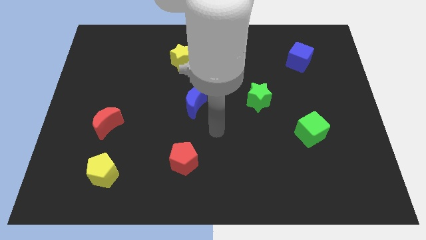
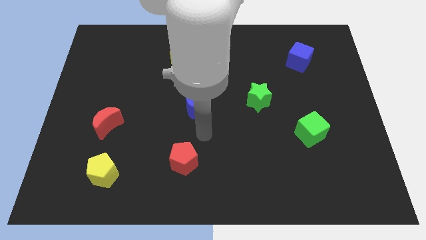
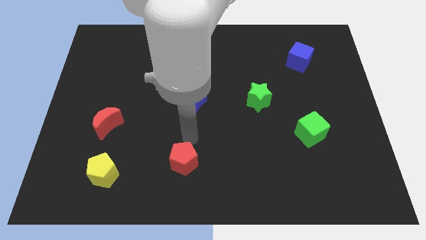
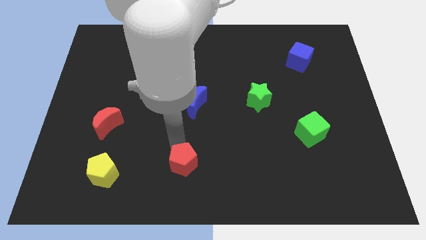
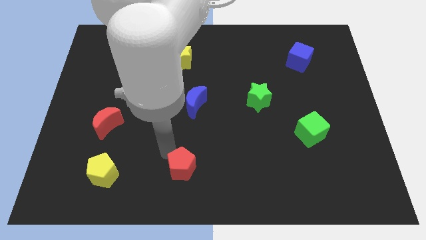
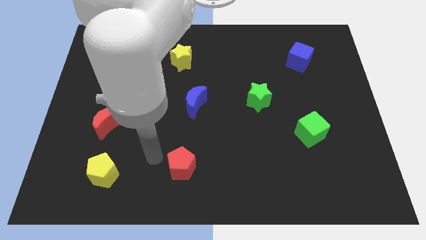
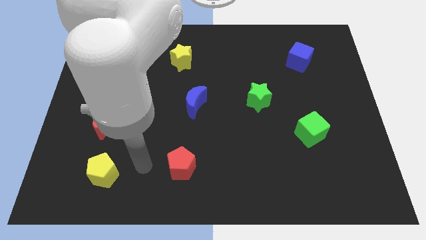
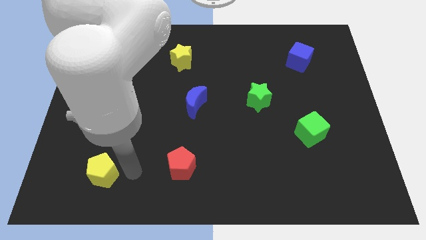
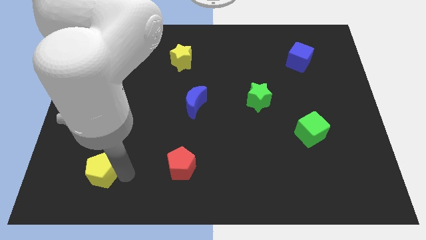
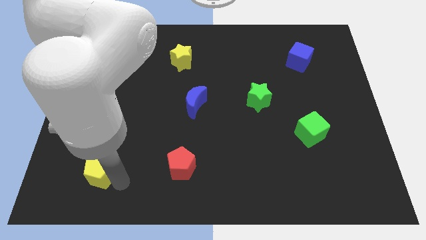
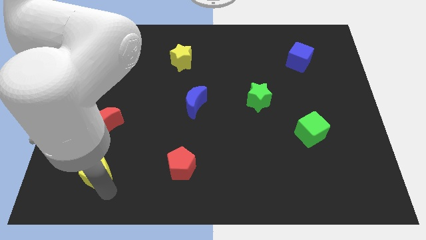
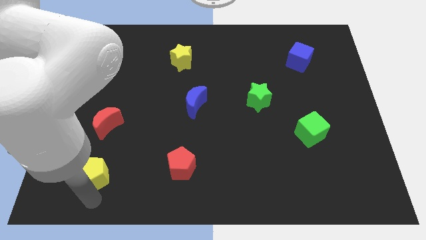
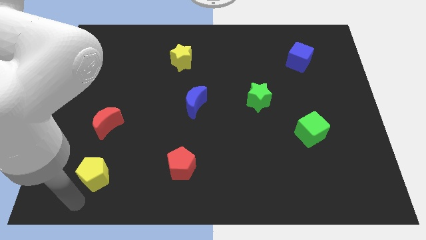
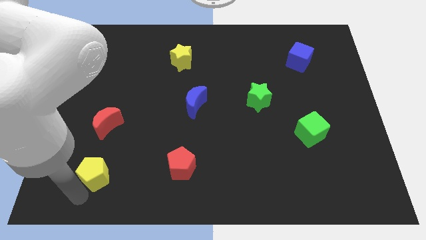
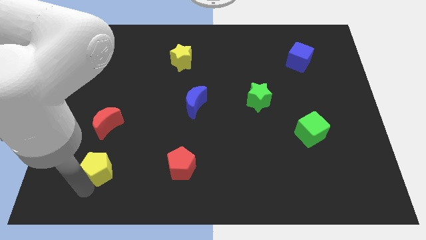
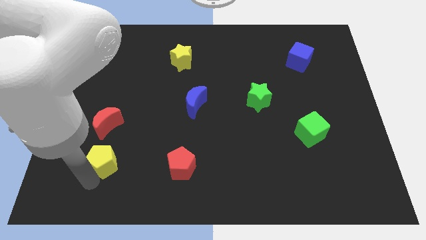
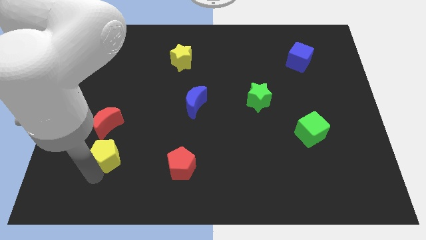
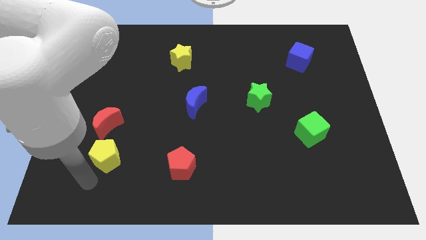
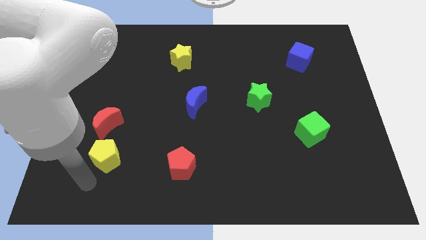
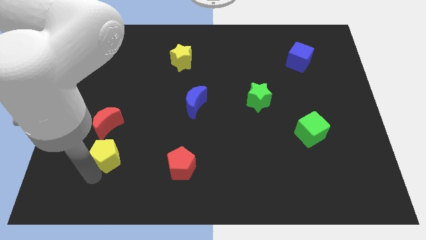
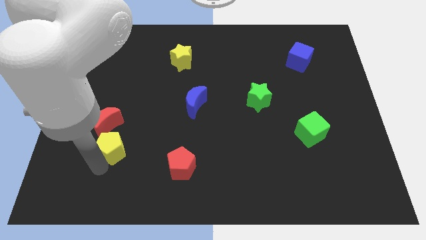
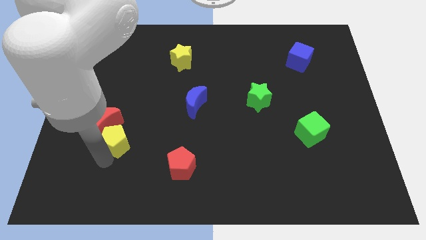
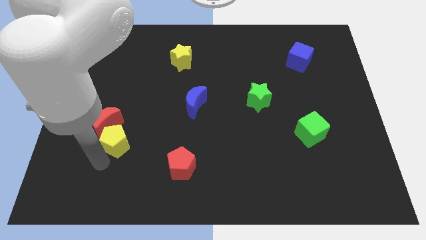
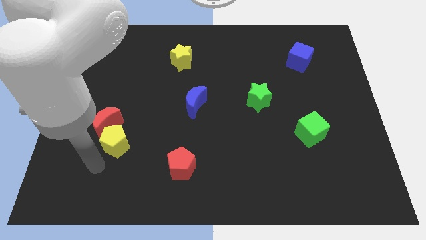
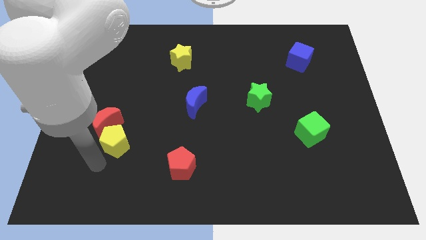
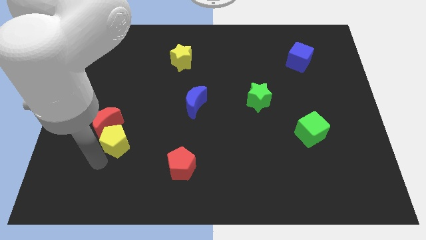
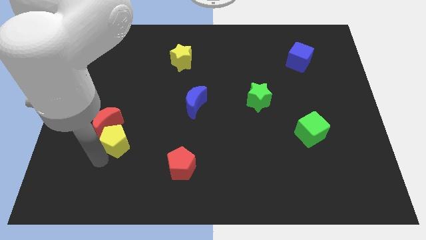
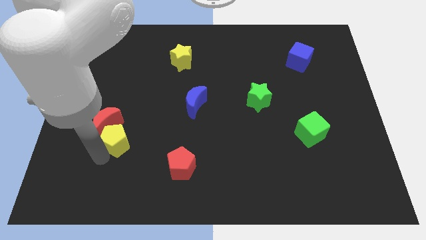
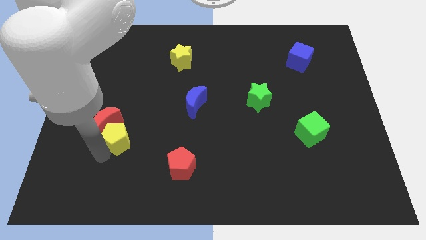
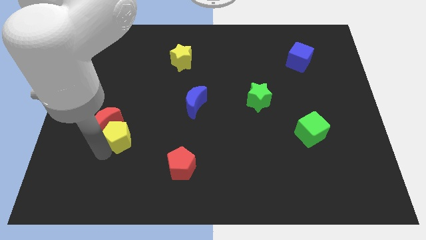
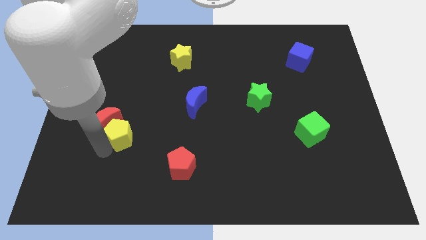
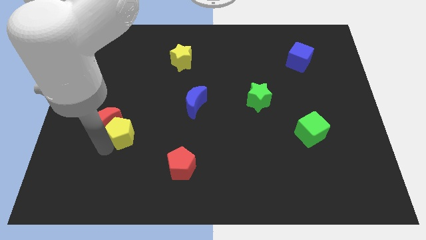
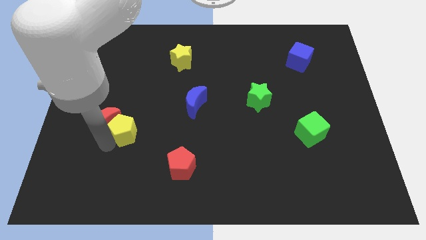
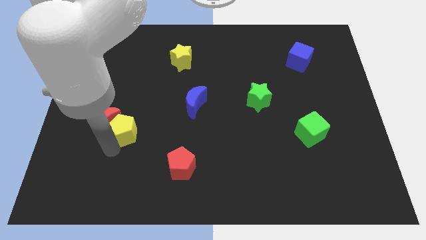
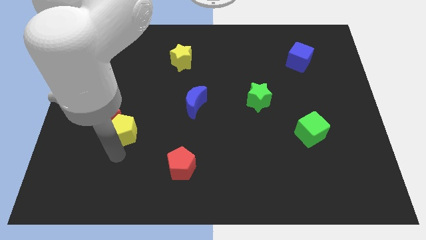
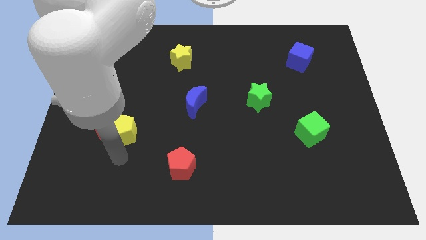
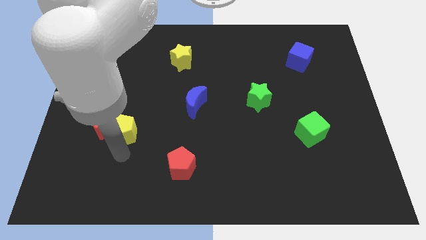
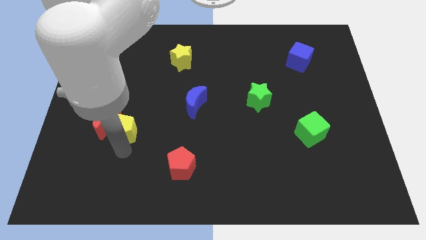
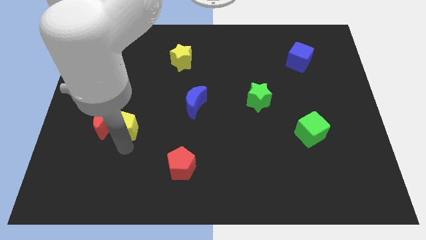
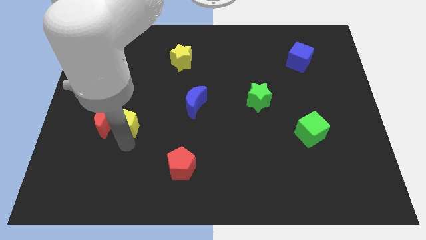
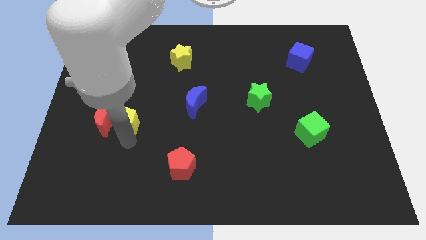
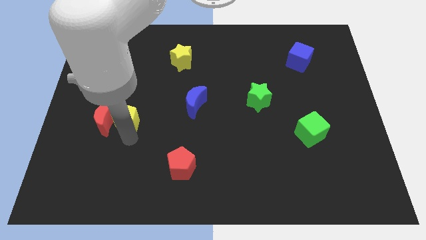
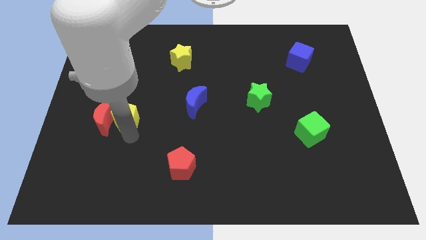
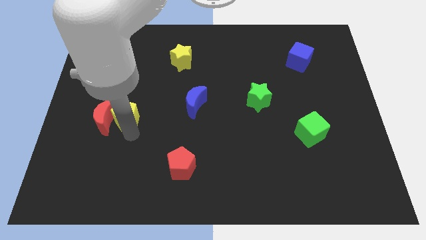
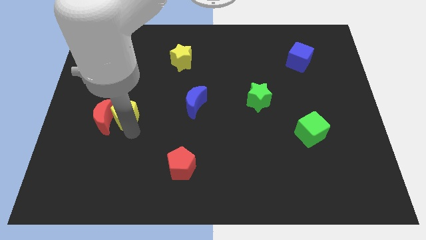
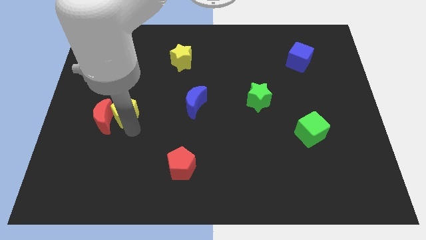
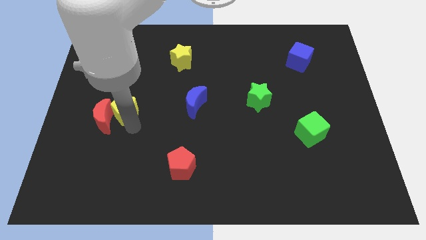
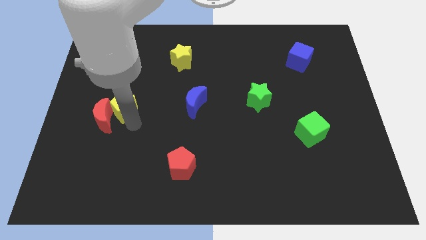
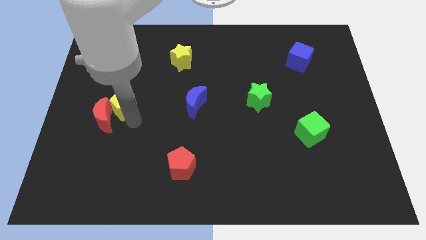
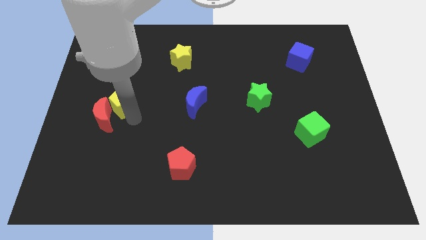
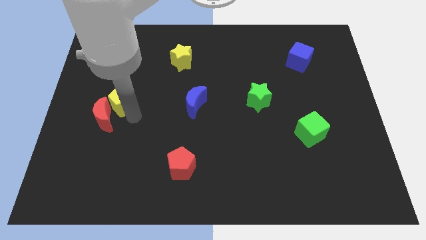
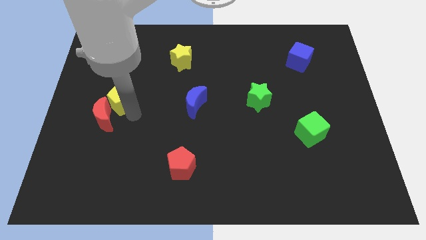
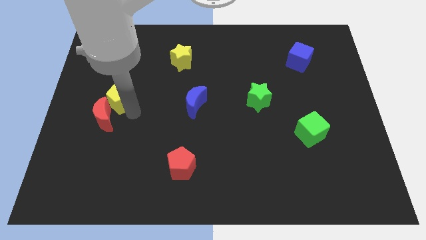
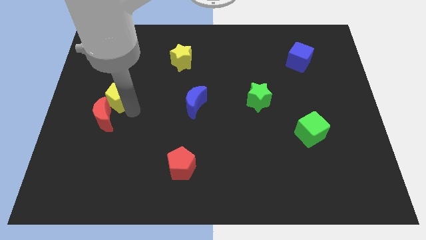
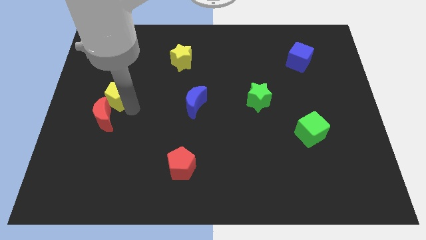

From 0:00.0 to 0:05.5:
move the yellow pentagon upwards

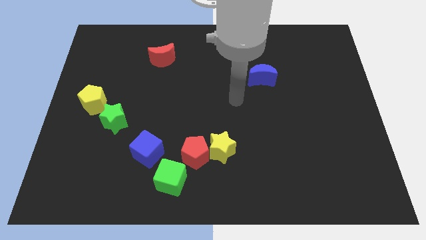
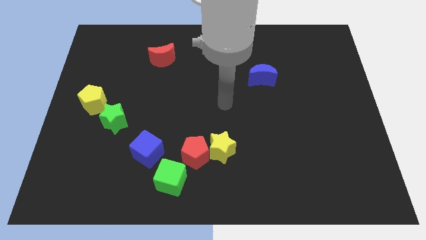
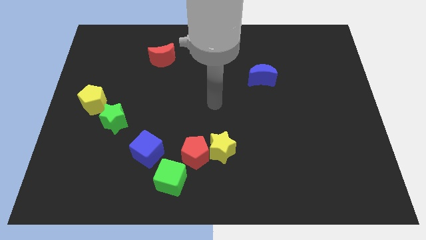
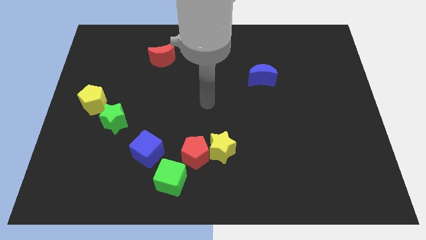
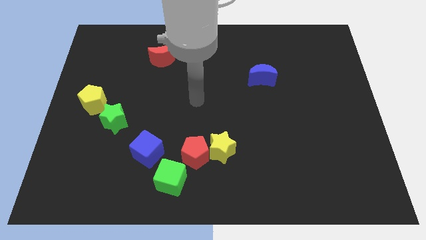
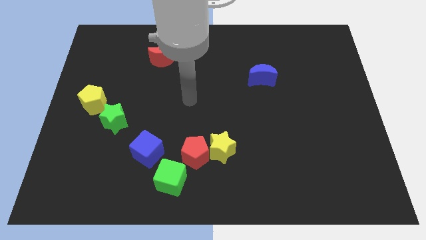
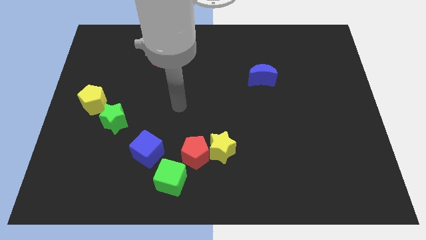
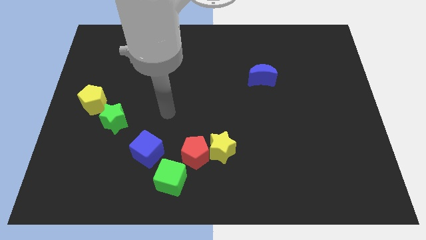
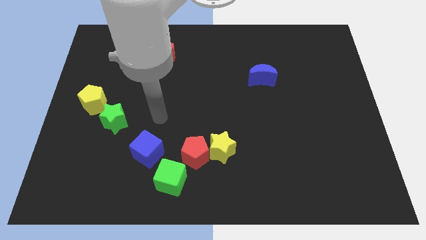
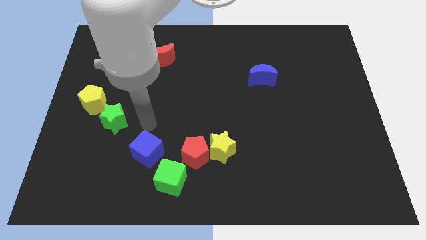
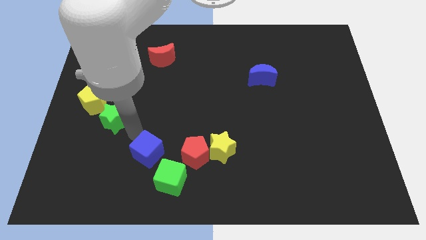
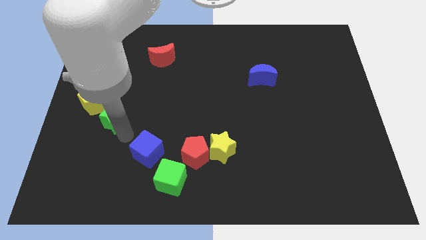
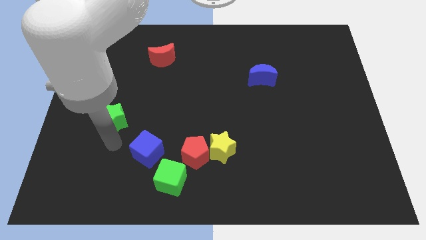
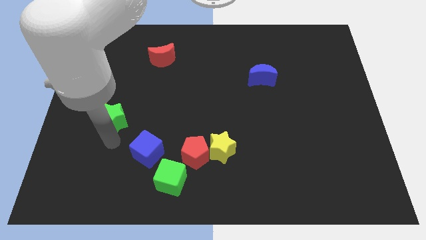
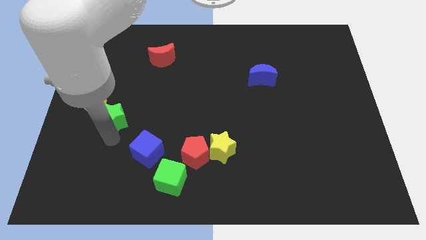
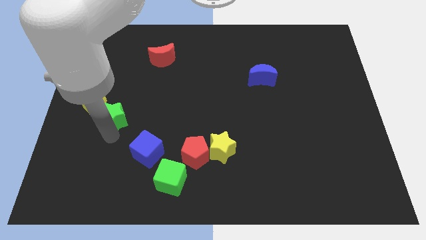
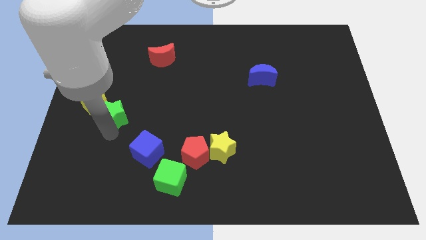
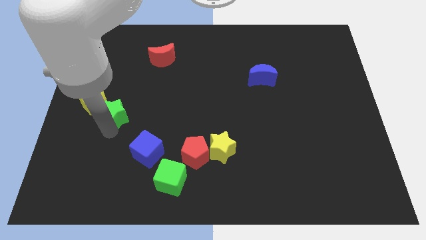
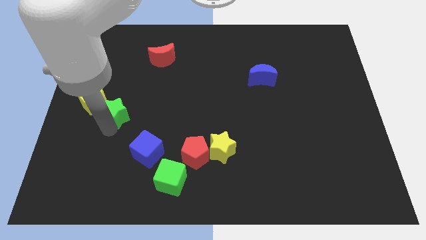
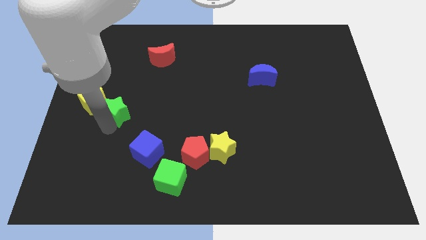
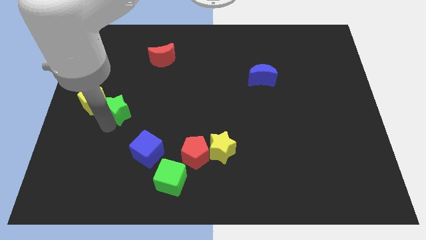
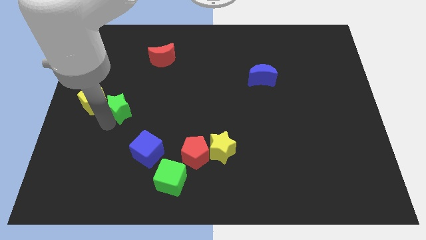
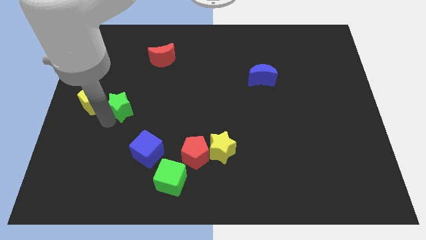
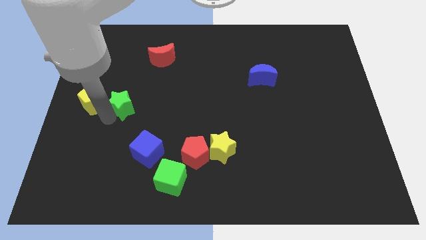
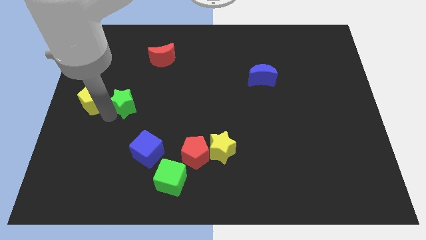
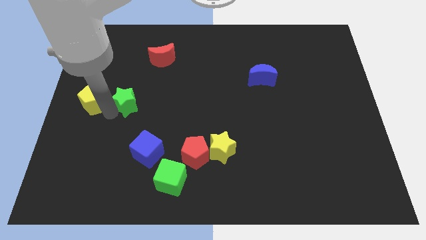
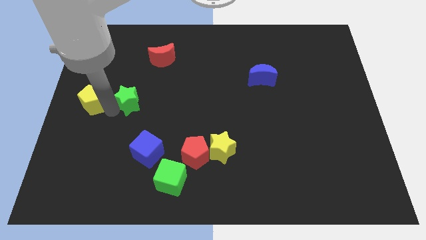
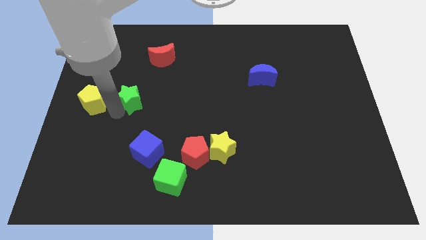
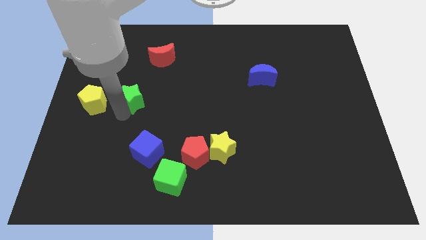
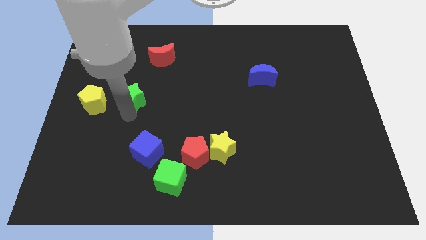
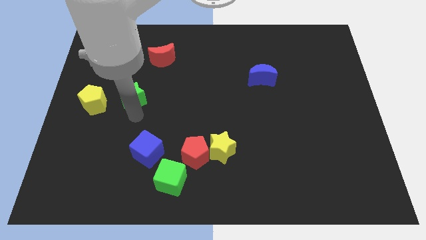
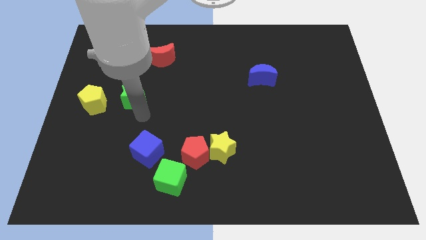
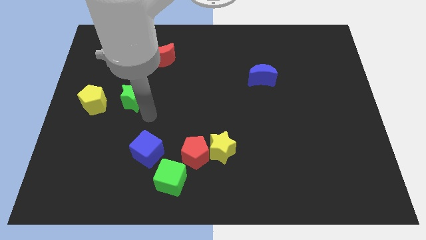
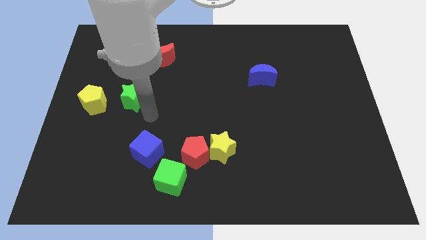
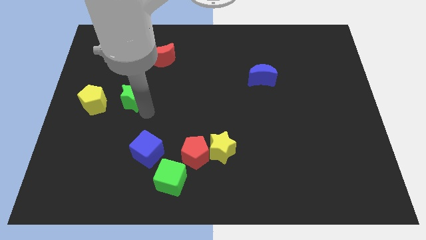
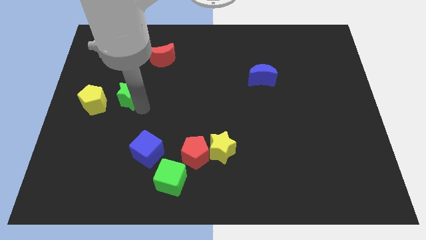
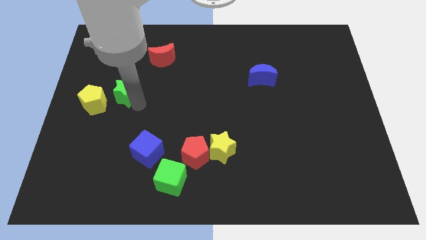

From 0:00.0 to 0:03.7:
slightly move the green star upwards
